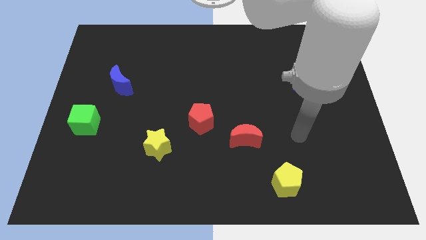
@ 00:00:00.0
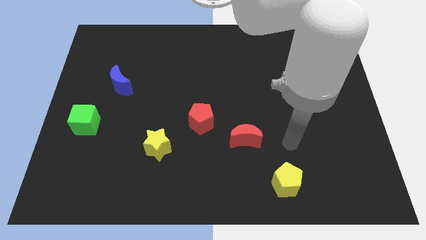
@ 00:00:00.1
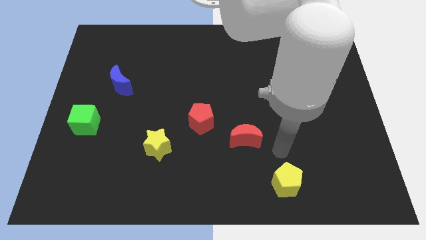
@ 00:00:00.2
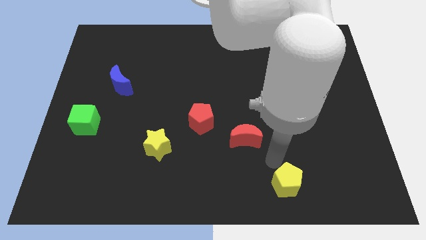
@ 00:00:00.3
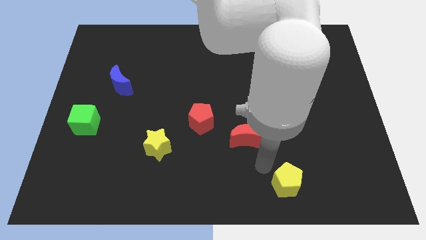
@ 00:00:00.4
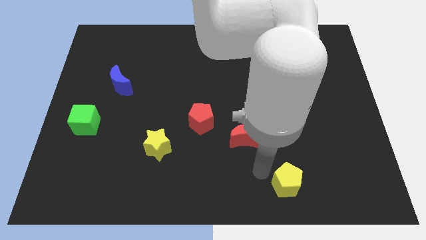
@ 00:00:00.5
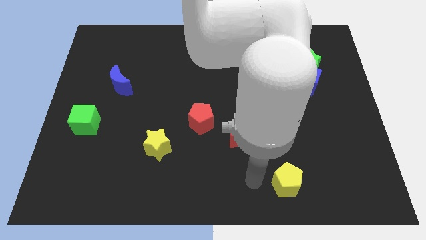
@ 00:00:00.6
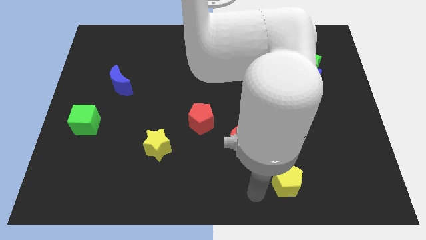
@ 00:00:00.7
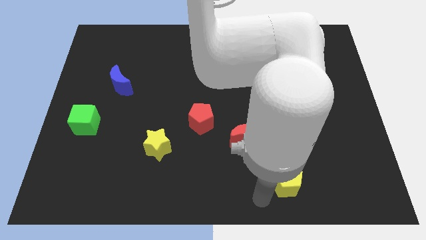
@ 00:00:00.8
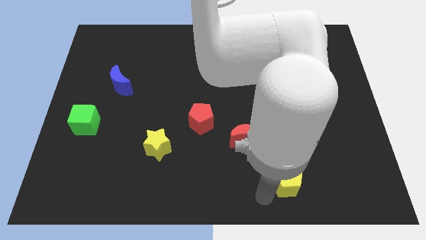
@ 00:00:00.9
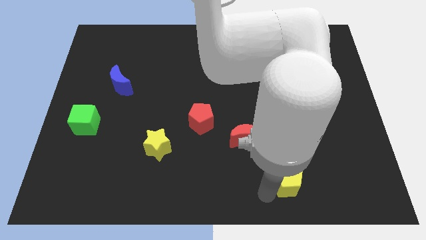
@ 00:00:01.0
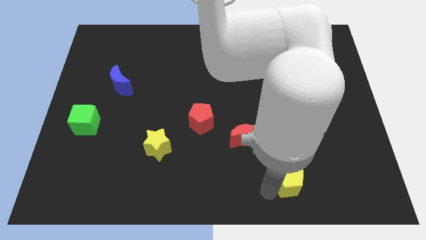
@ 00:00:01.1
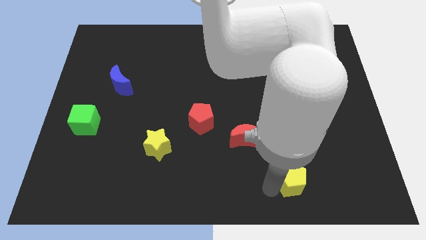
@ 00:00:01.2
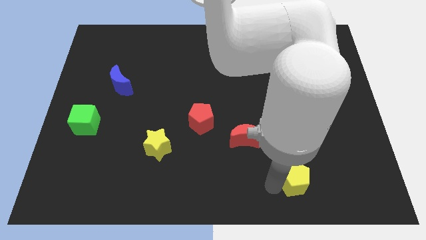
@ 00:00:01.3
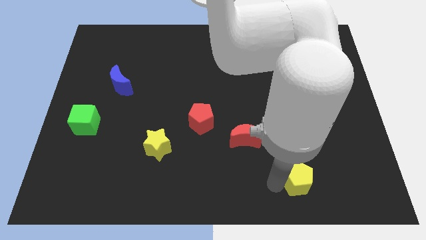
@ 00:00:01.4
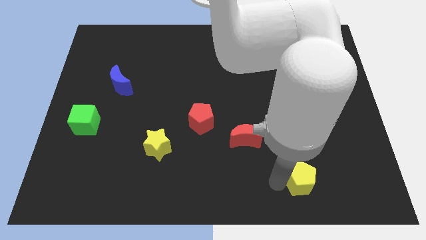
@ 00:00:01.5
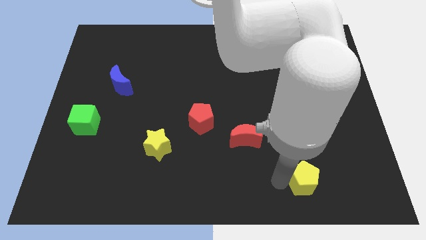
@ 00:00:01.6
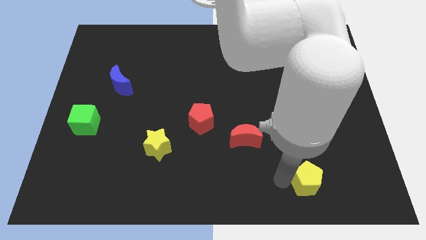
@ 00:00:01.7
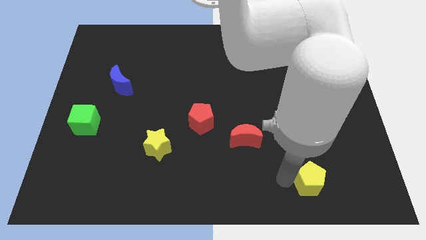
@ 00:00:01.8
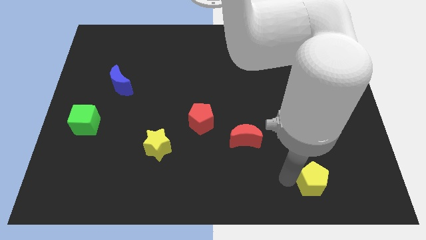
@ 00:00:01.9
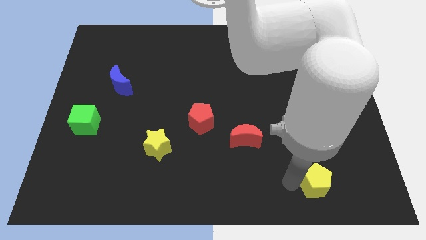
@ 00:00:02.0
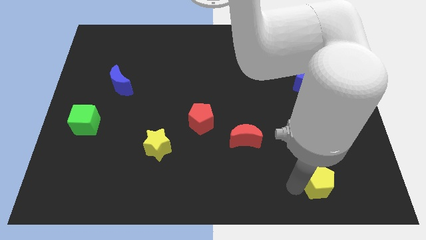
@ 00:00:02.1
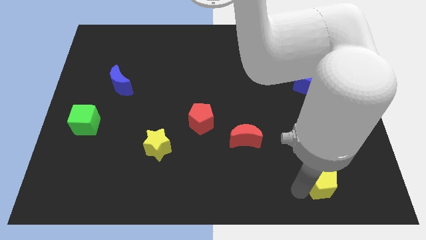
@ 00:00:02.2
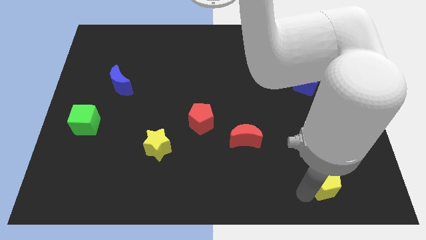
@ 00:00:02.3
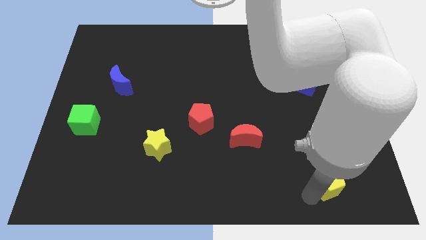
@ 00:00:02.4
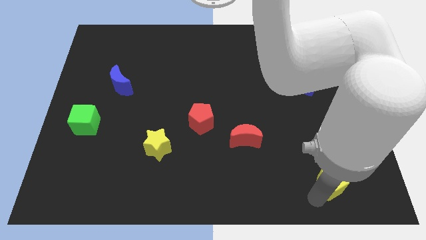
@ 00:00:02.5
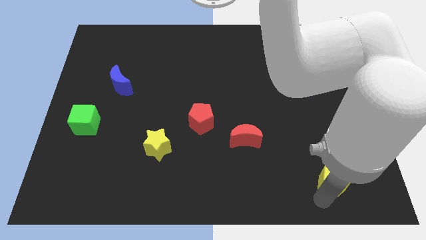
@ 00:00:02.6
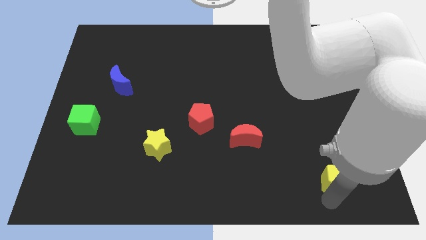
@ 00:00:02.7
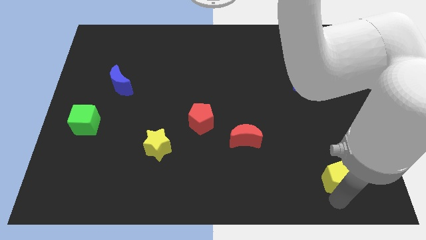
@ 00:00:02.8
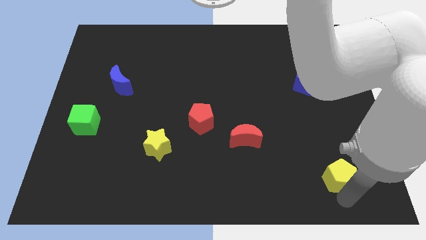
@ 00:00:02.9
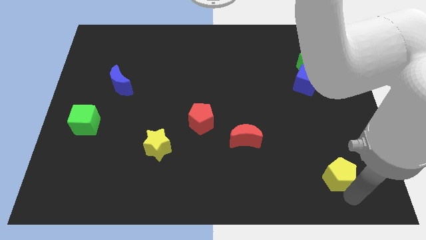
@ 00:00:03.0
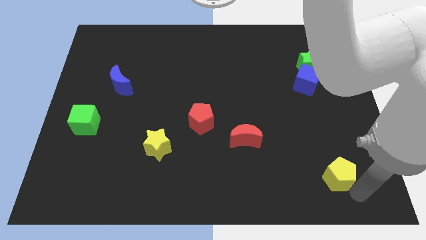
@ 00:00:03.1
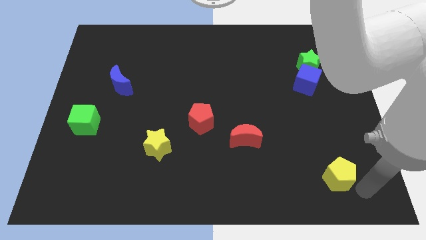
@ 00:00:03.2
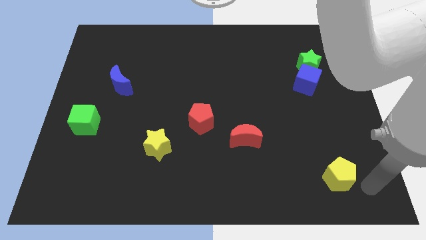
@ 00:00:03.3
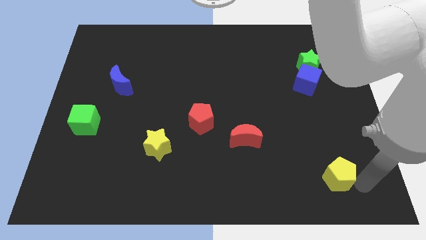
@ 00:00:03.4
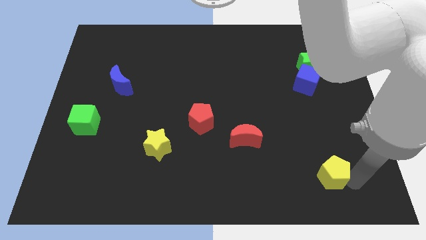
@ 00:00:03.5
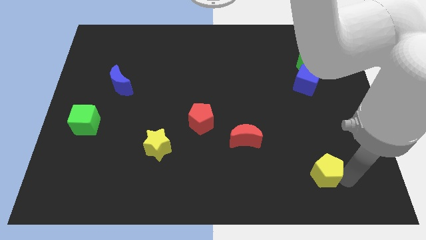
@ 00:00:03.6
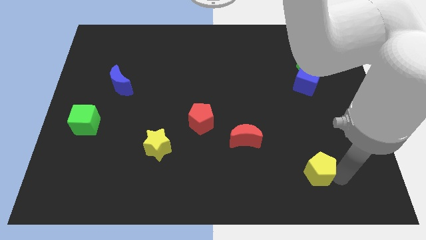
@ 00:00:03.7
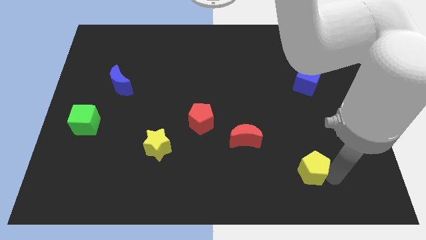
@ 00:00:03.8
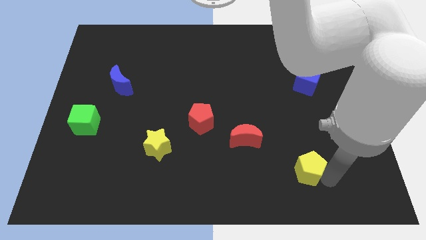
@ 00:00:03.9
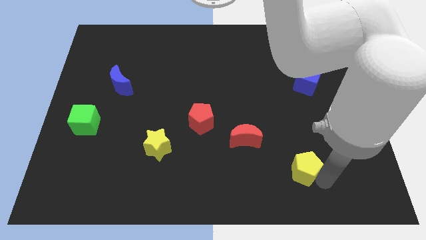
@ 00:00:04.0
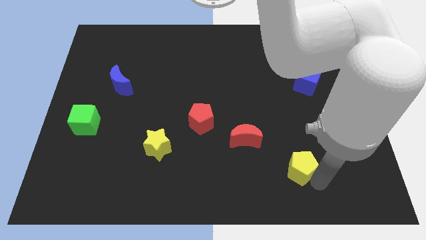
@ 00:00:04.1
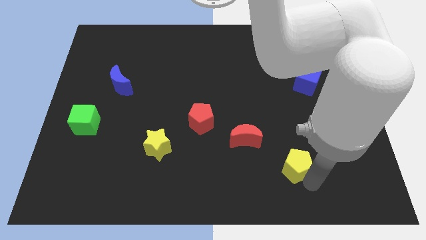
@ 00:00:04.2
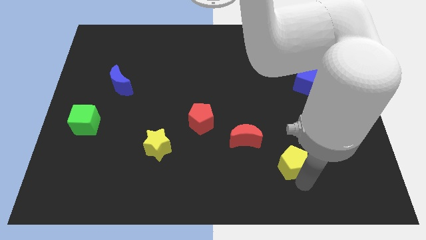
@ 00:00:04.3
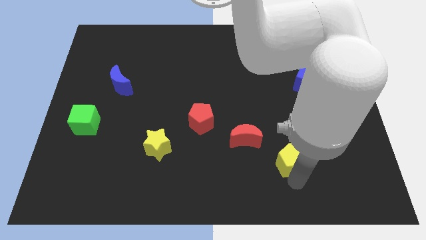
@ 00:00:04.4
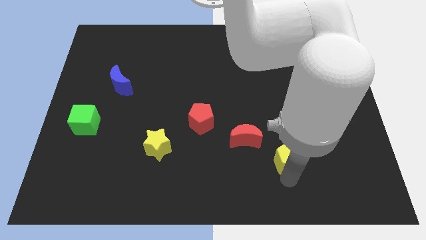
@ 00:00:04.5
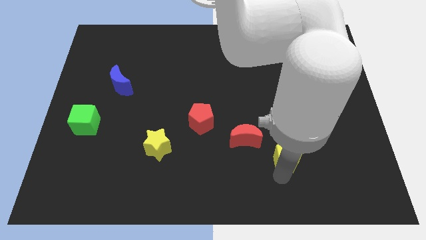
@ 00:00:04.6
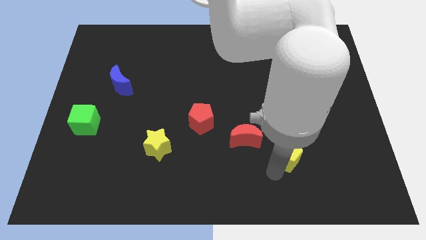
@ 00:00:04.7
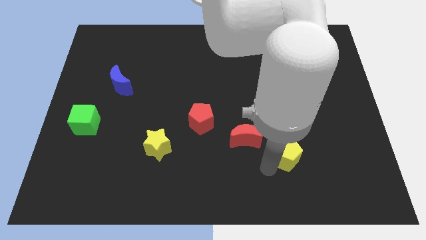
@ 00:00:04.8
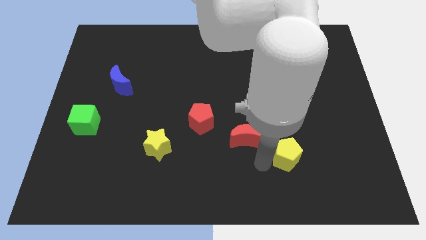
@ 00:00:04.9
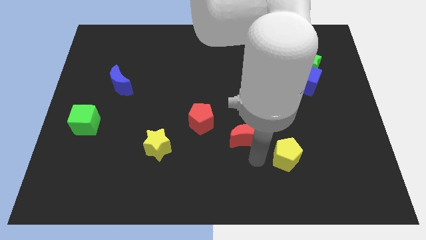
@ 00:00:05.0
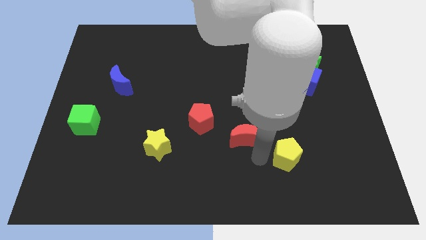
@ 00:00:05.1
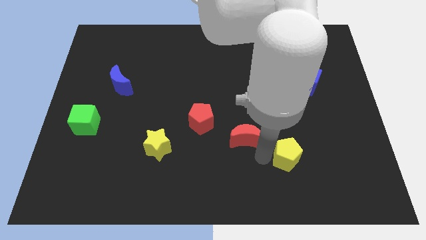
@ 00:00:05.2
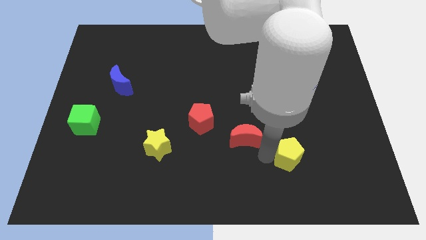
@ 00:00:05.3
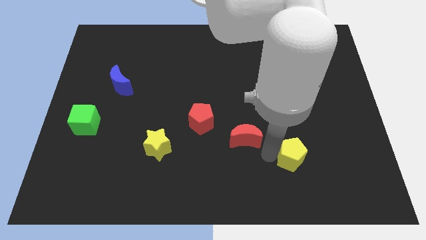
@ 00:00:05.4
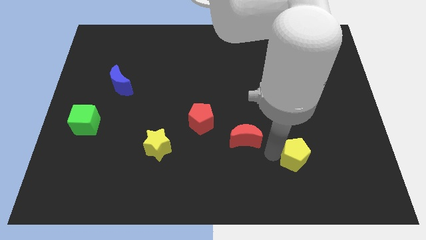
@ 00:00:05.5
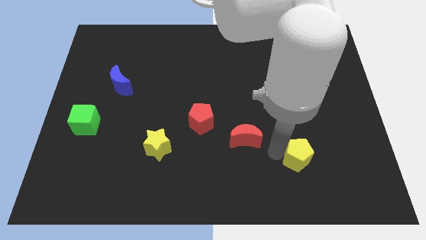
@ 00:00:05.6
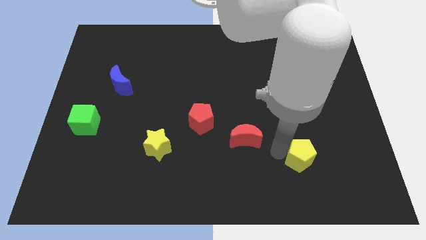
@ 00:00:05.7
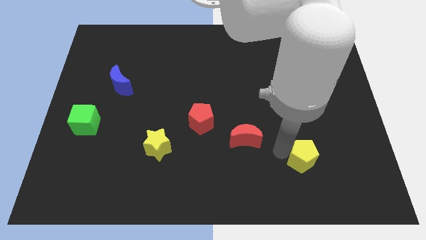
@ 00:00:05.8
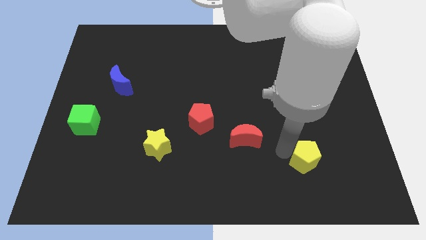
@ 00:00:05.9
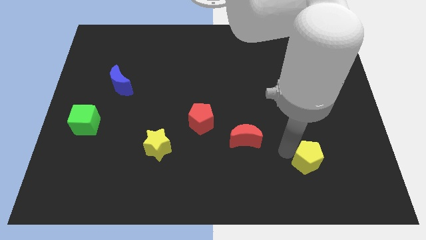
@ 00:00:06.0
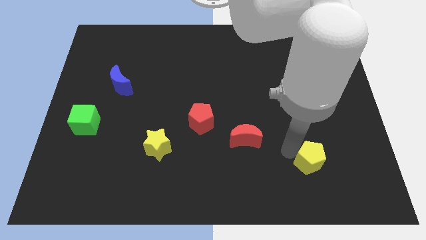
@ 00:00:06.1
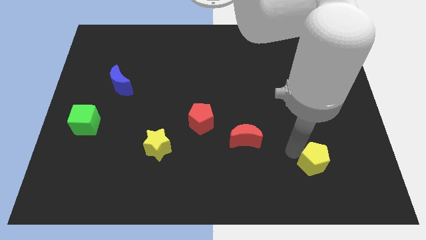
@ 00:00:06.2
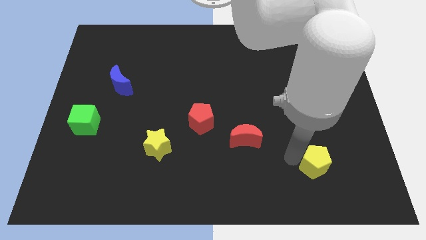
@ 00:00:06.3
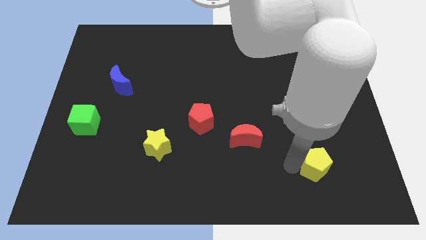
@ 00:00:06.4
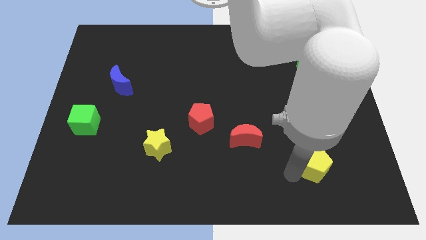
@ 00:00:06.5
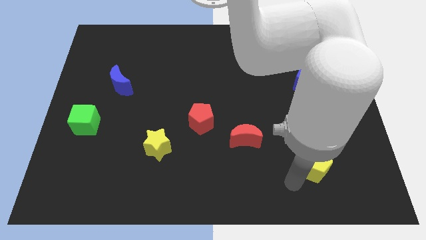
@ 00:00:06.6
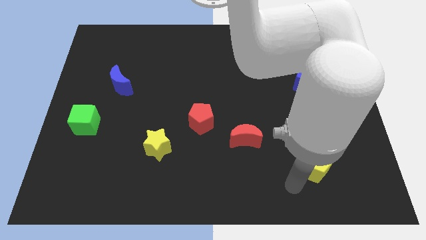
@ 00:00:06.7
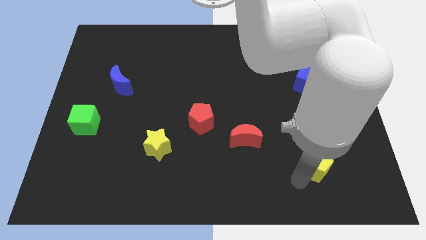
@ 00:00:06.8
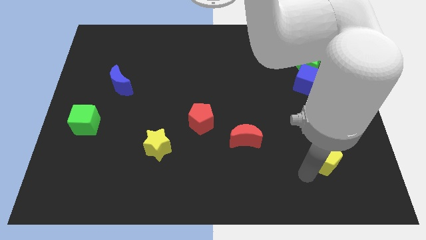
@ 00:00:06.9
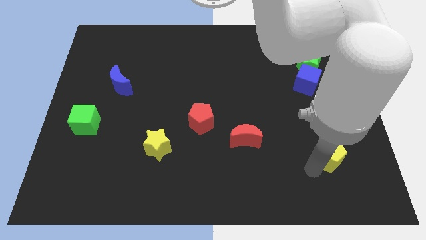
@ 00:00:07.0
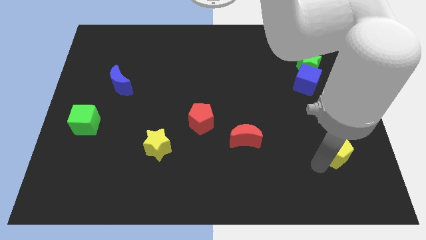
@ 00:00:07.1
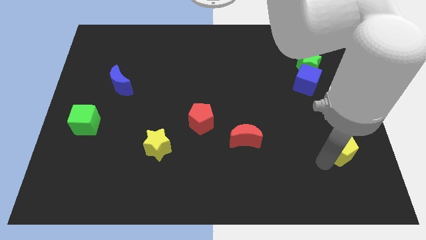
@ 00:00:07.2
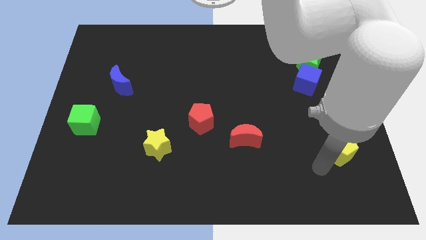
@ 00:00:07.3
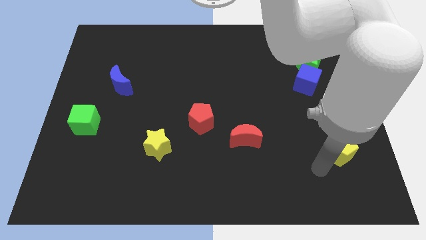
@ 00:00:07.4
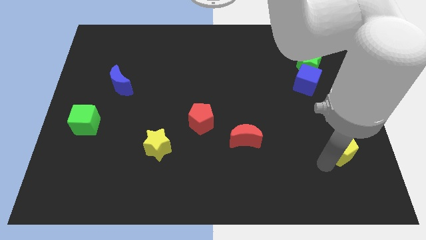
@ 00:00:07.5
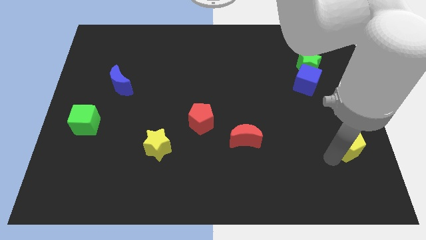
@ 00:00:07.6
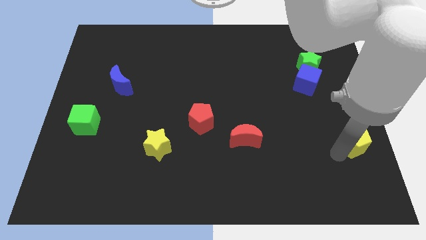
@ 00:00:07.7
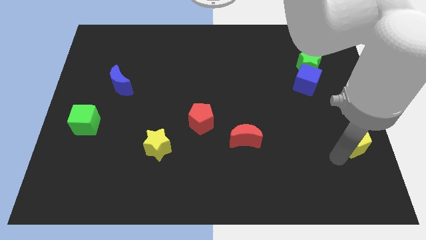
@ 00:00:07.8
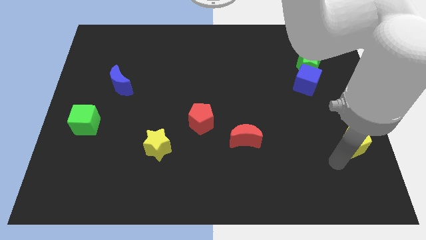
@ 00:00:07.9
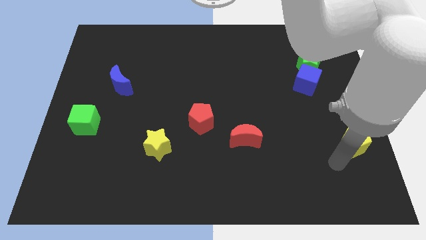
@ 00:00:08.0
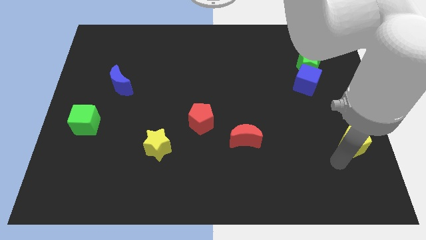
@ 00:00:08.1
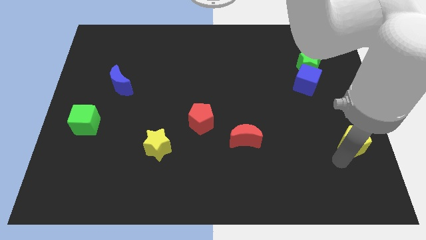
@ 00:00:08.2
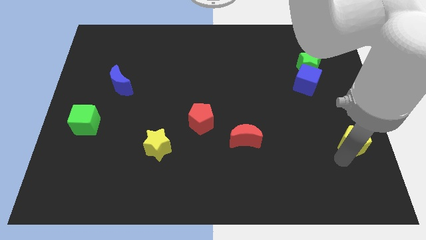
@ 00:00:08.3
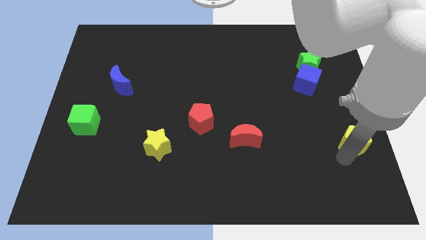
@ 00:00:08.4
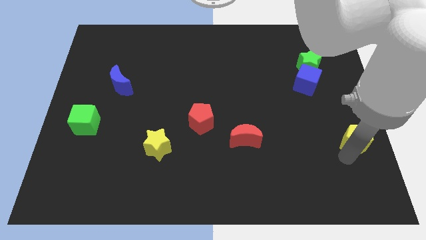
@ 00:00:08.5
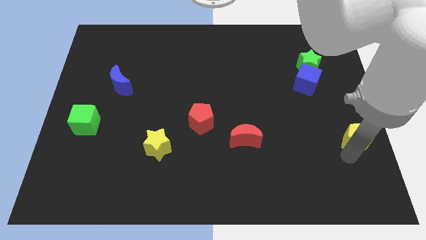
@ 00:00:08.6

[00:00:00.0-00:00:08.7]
put the yellow pentagon to the right side
